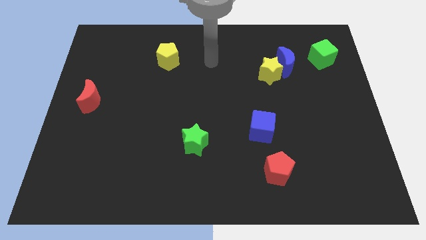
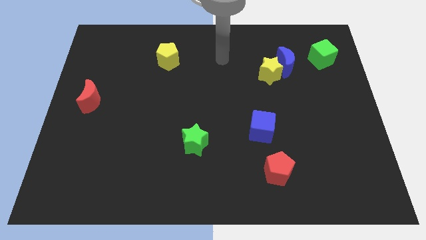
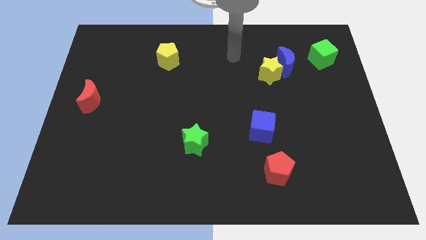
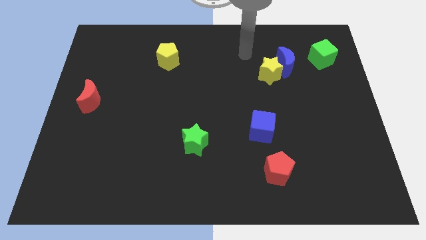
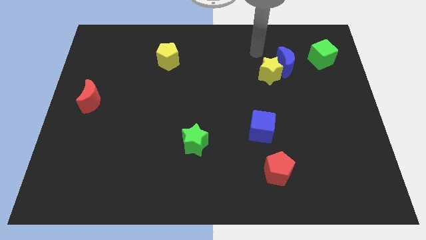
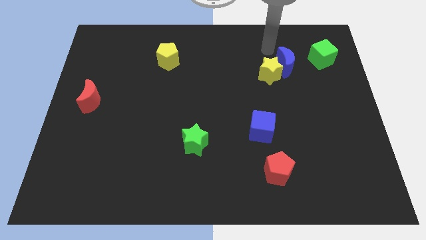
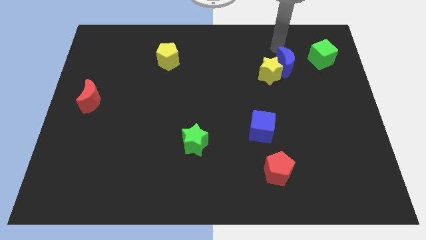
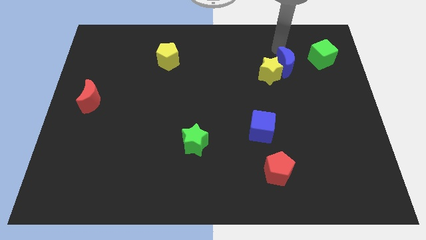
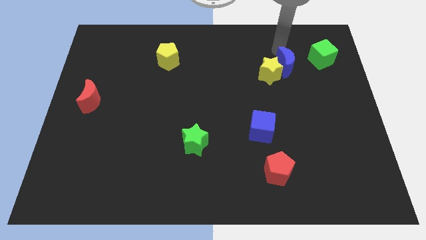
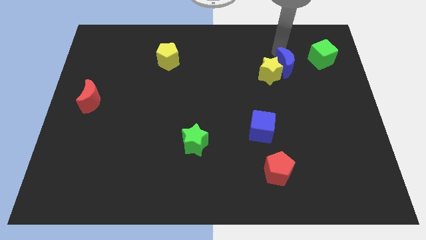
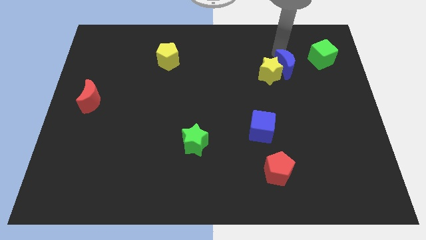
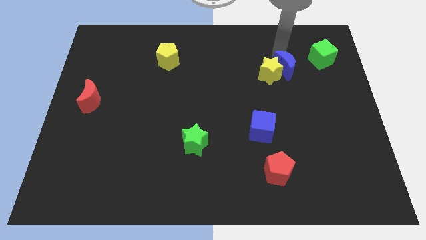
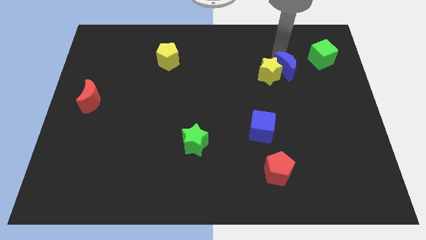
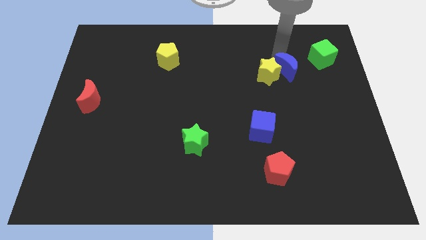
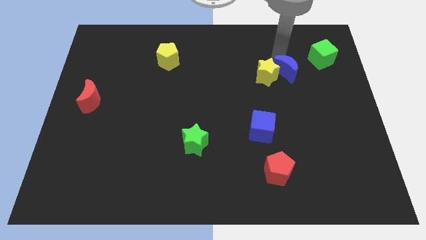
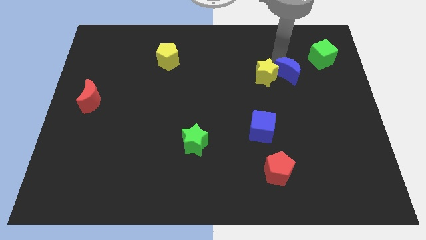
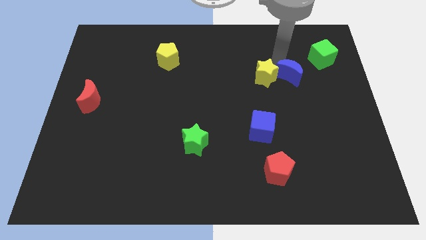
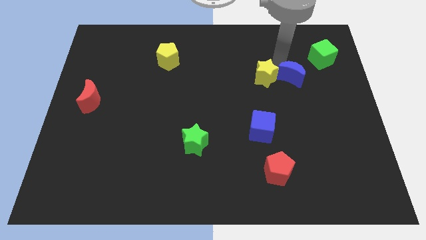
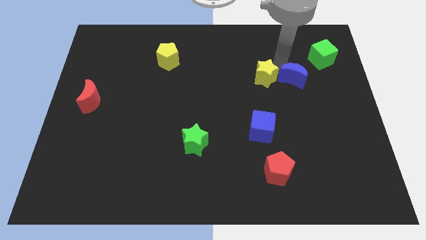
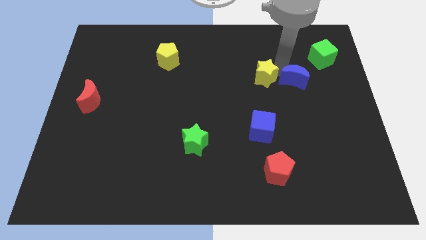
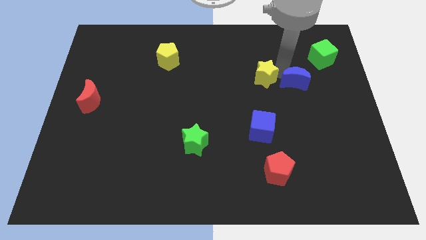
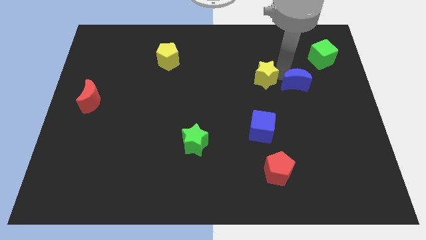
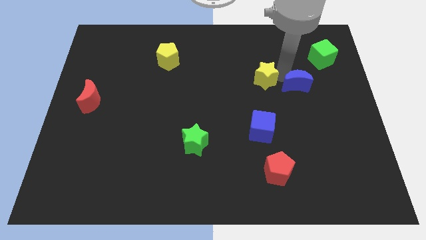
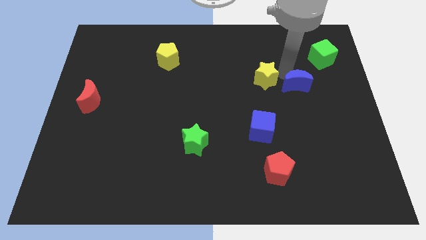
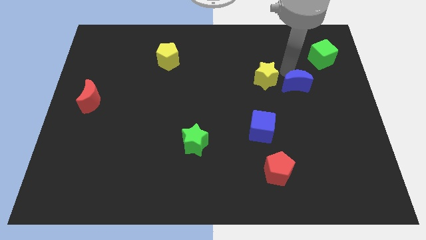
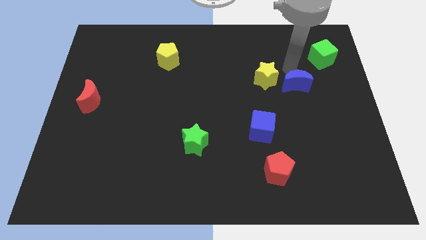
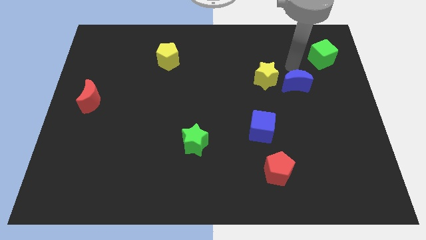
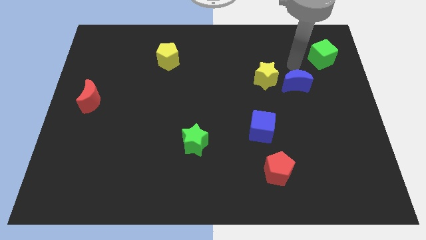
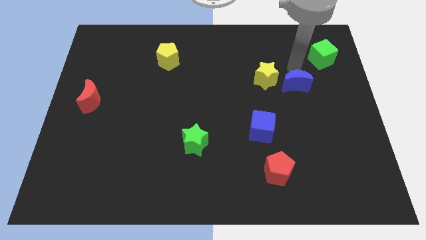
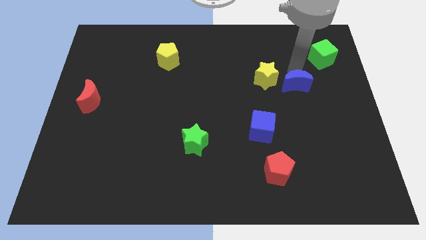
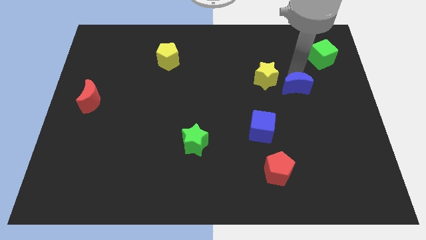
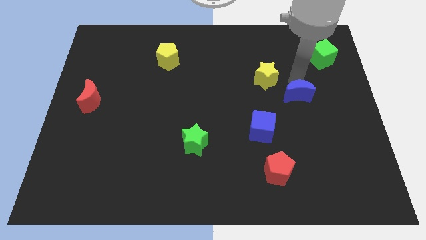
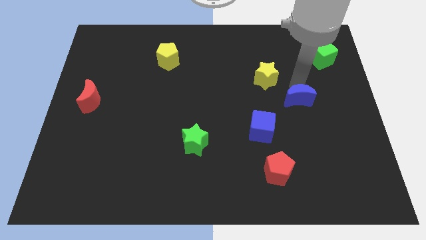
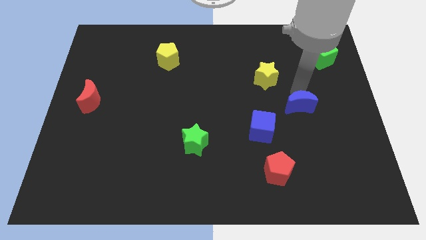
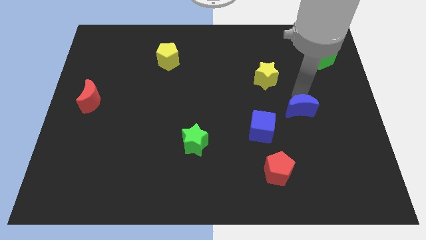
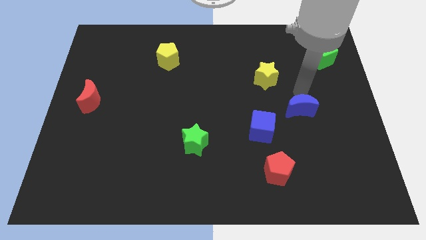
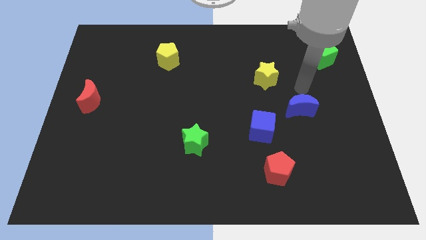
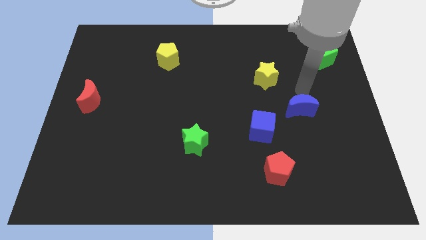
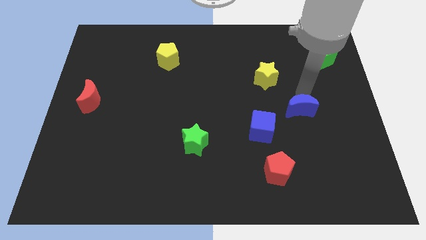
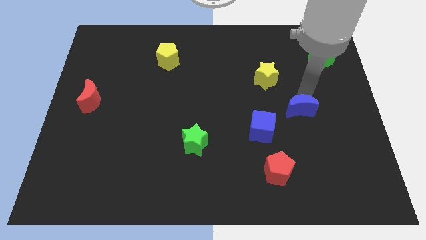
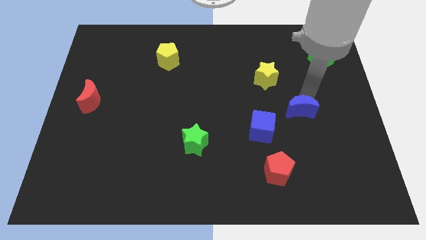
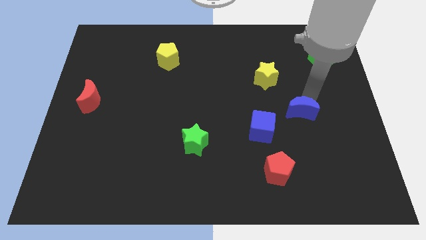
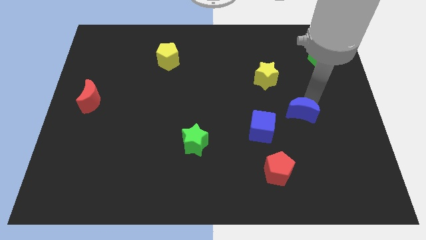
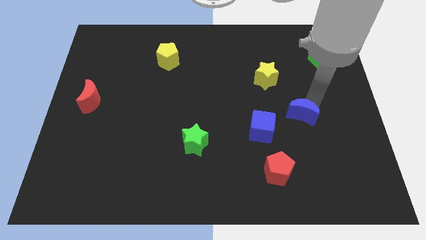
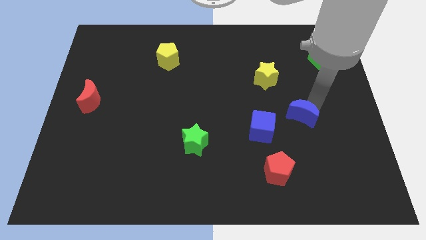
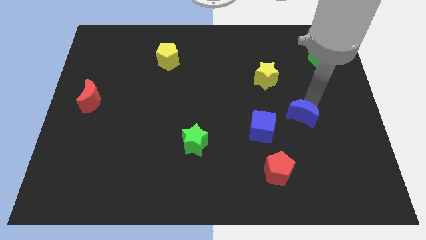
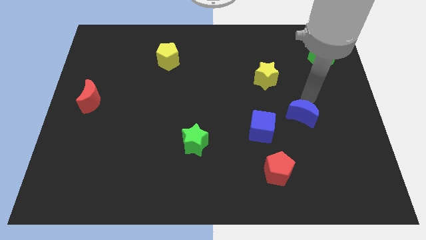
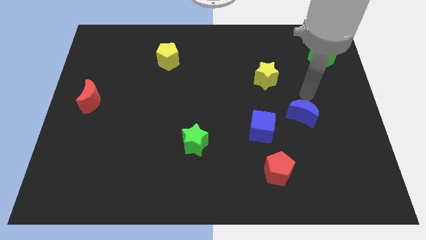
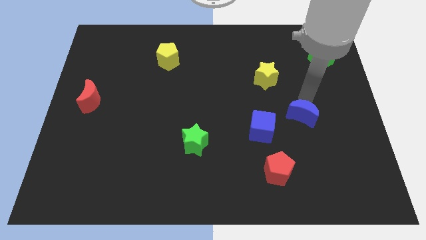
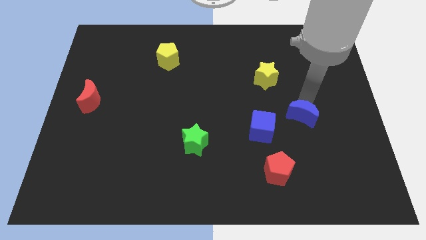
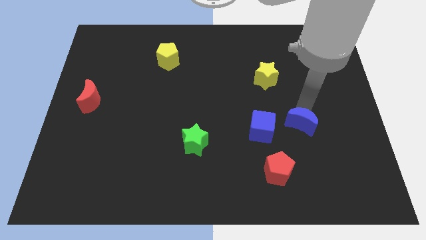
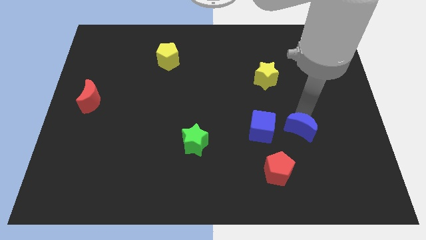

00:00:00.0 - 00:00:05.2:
slide the blue moon downwards

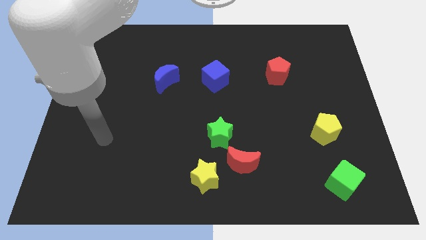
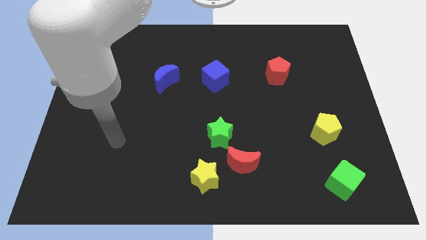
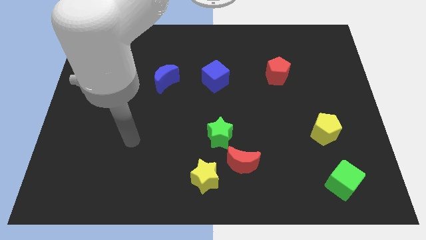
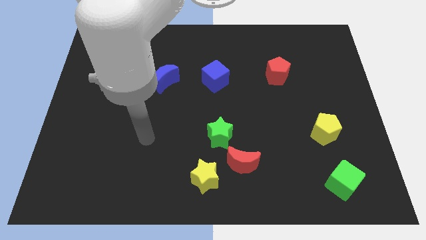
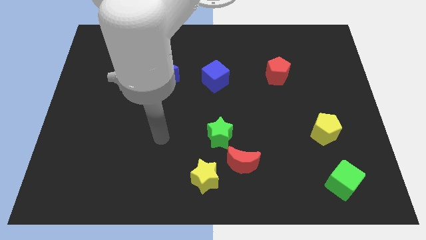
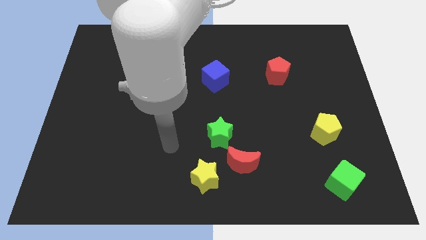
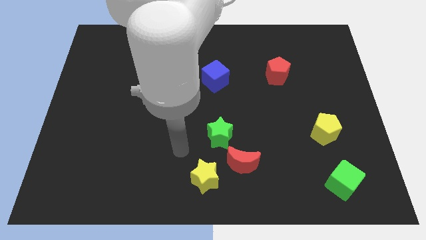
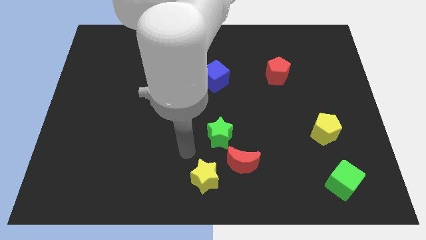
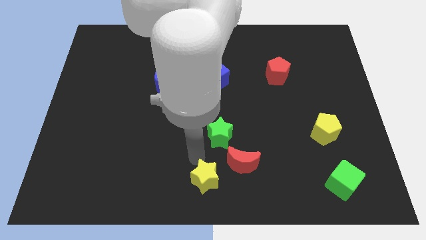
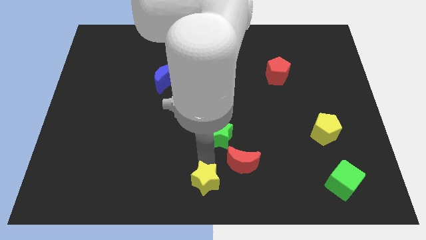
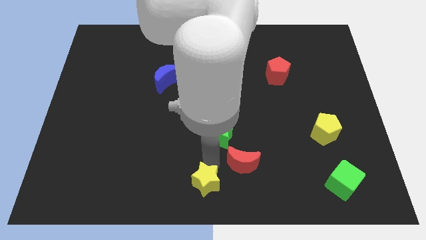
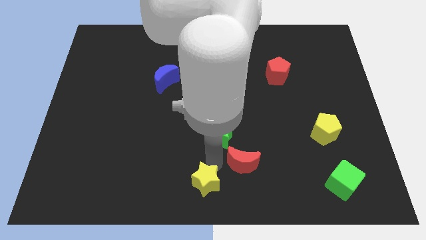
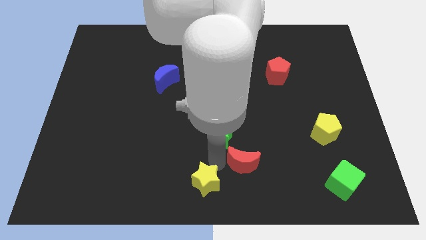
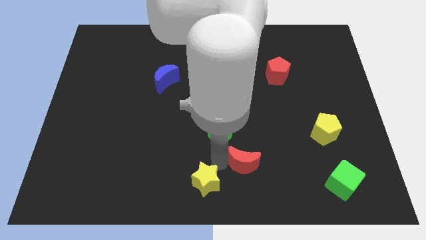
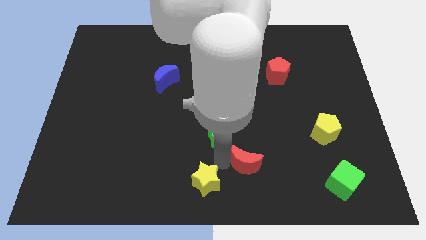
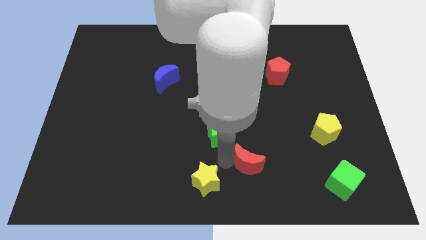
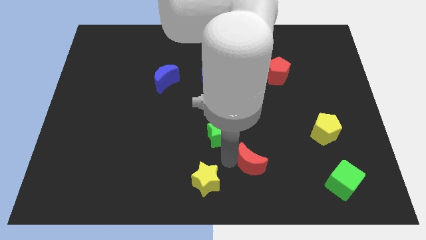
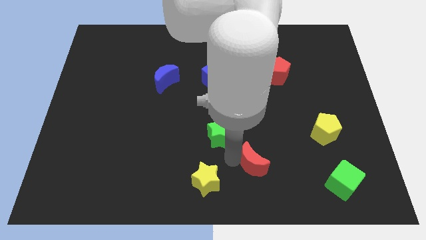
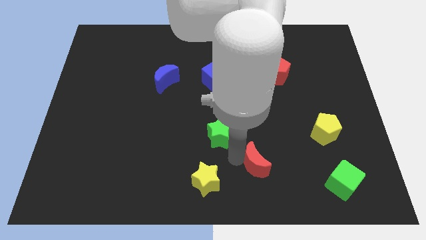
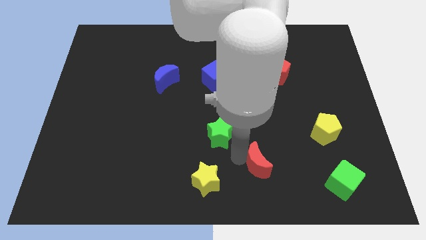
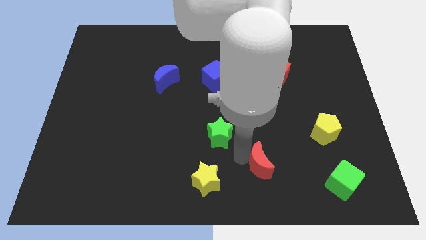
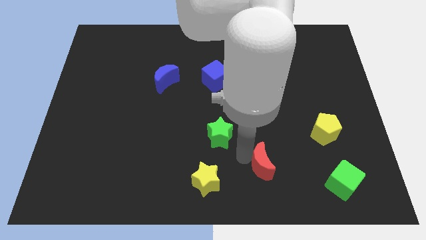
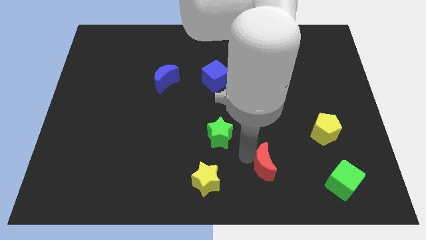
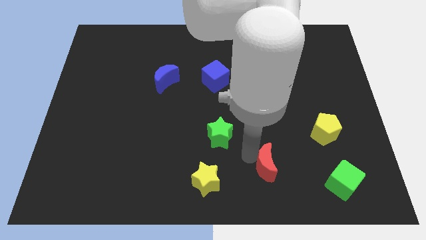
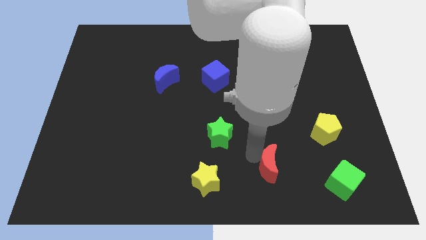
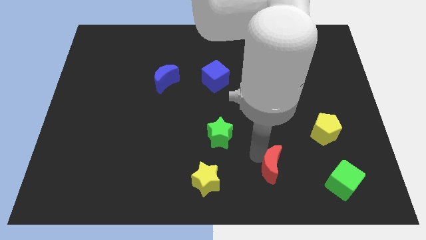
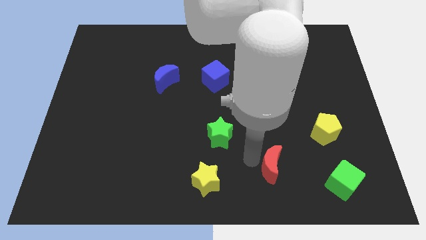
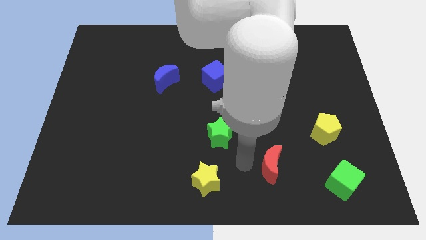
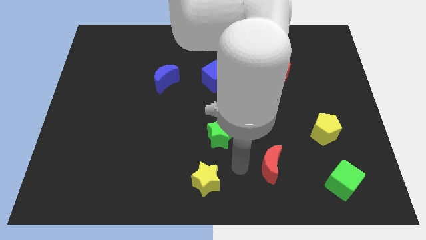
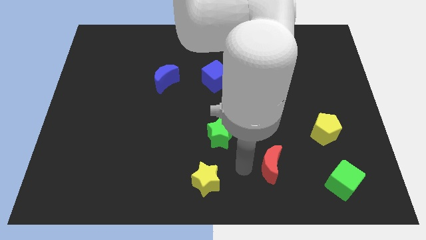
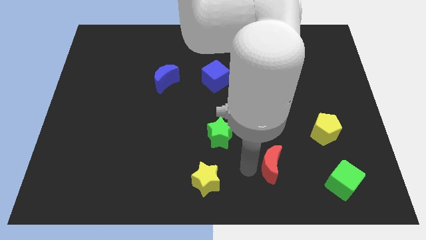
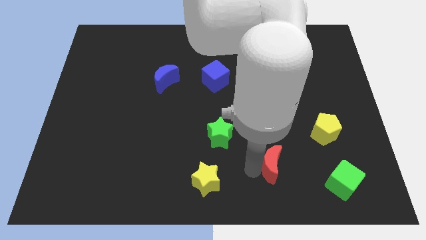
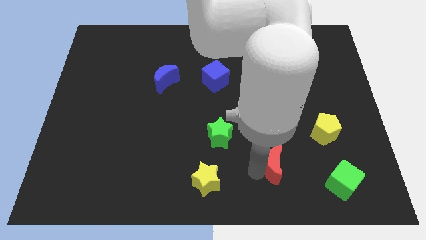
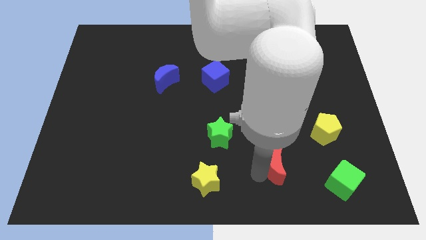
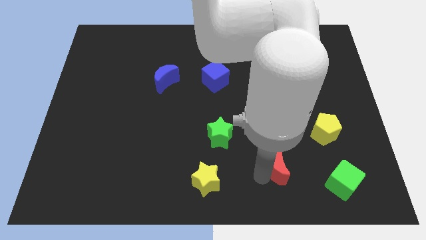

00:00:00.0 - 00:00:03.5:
slide the red moon slightly to the right
